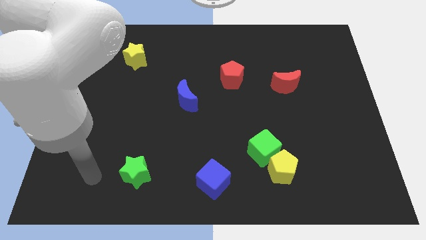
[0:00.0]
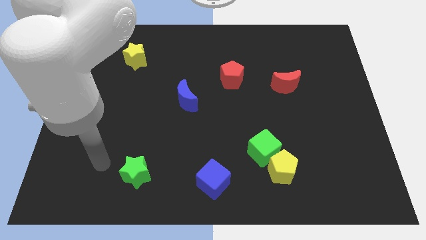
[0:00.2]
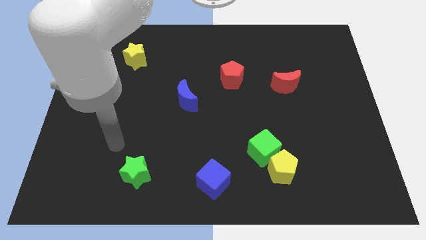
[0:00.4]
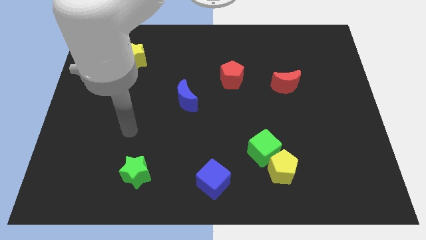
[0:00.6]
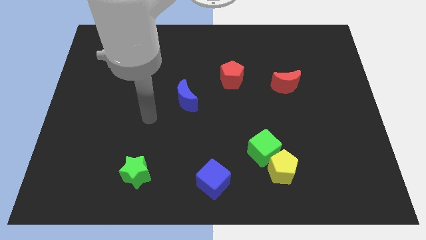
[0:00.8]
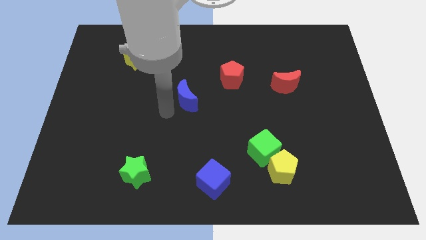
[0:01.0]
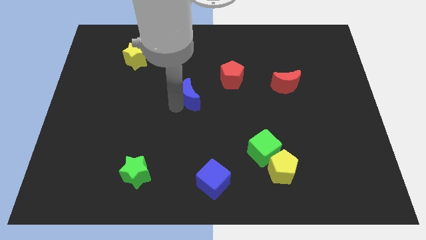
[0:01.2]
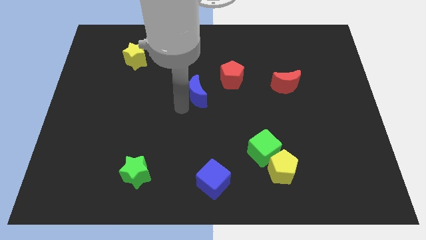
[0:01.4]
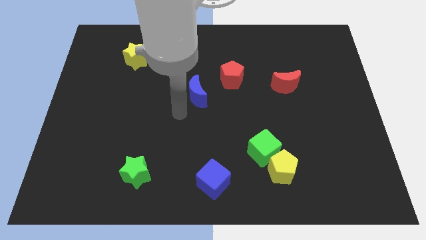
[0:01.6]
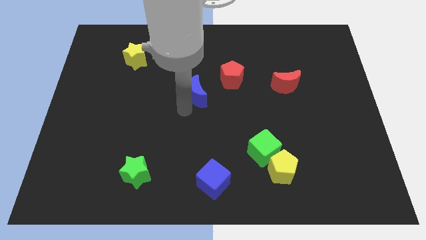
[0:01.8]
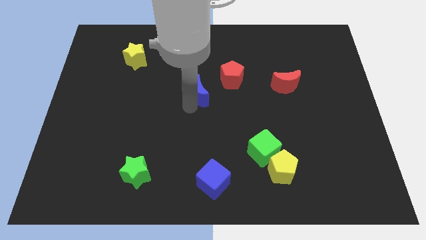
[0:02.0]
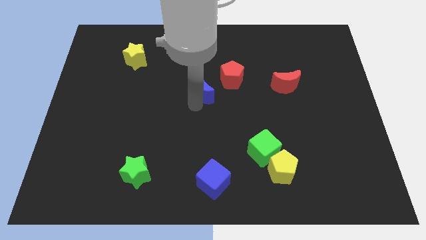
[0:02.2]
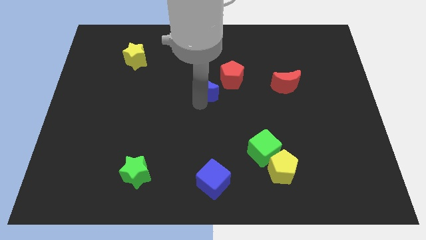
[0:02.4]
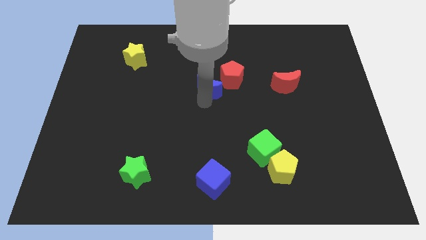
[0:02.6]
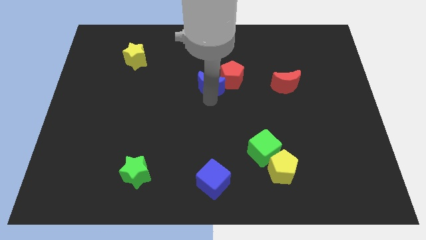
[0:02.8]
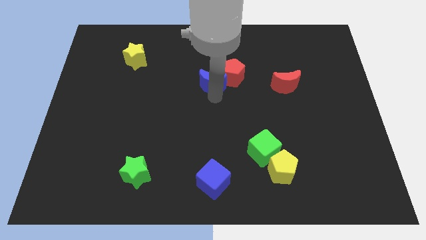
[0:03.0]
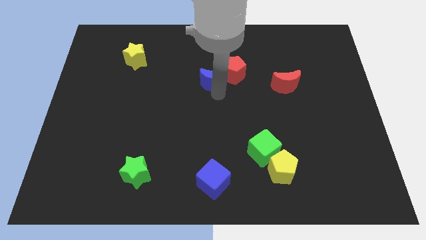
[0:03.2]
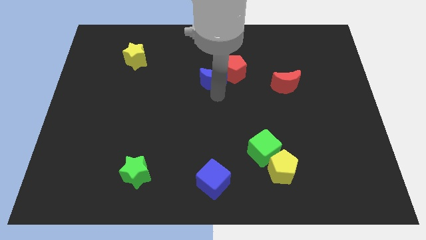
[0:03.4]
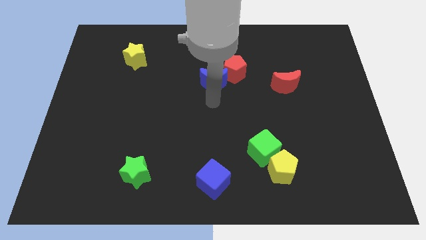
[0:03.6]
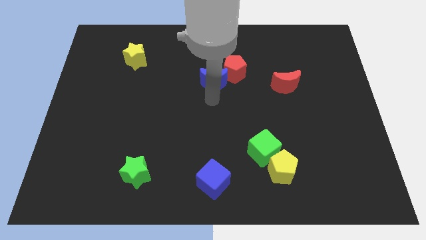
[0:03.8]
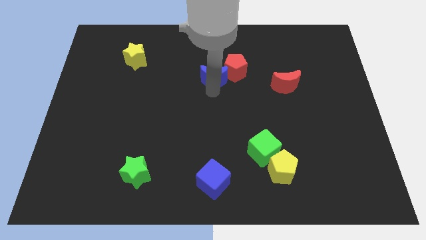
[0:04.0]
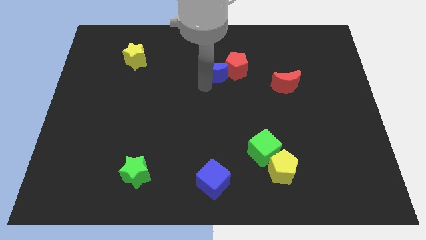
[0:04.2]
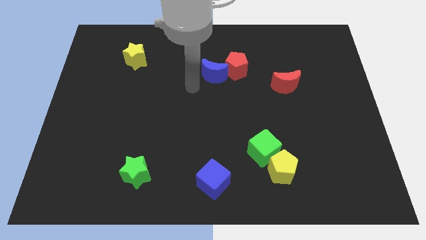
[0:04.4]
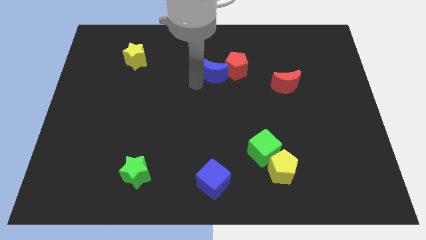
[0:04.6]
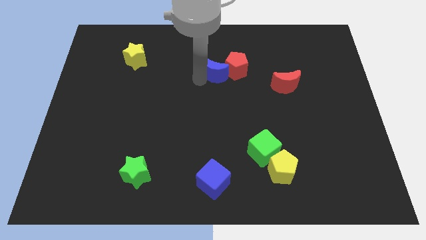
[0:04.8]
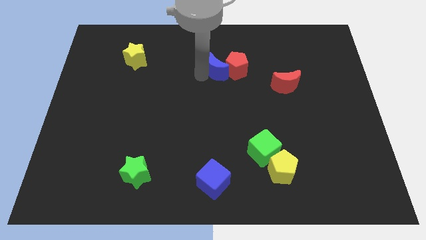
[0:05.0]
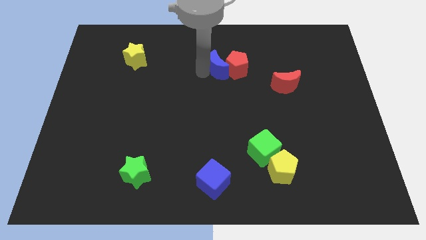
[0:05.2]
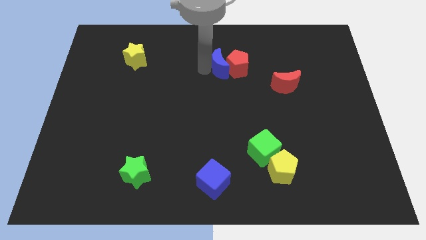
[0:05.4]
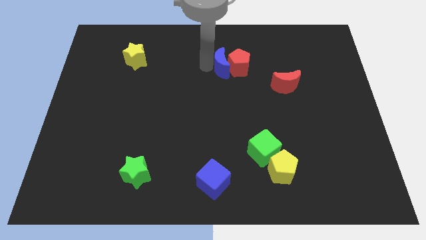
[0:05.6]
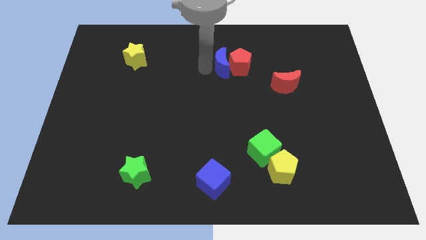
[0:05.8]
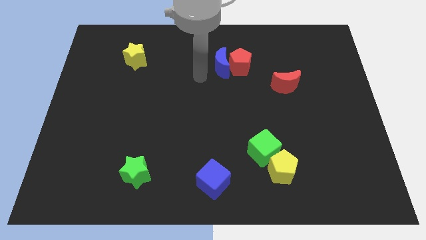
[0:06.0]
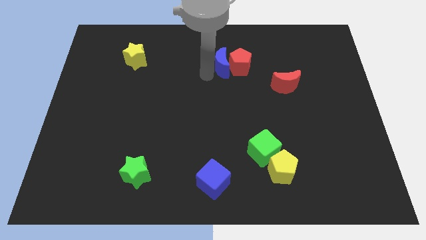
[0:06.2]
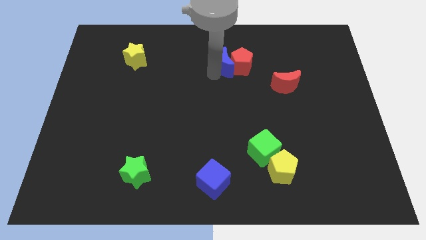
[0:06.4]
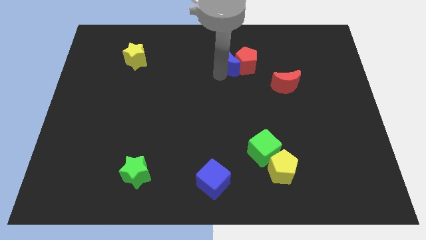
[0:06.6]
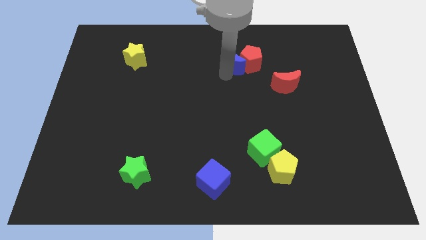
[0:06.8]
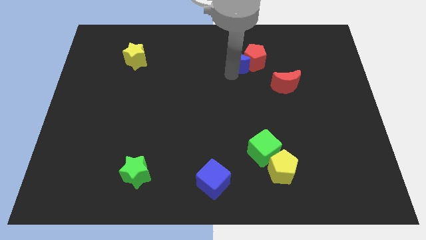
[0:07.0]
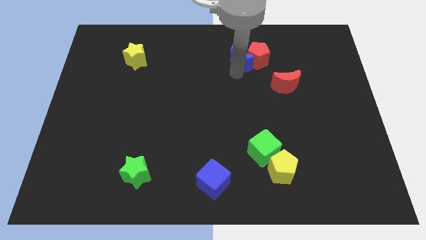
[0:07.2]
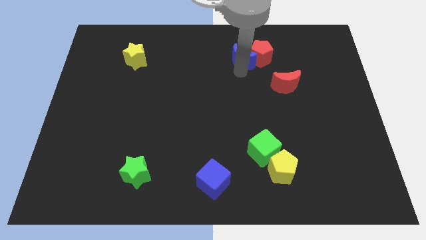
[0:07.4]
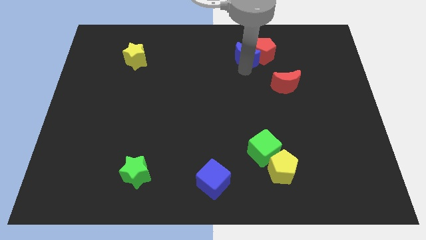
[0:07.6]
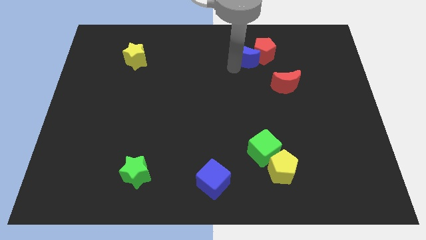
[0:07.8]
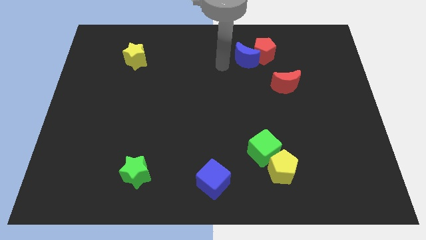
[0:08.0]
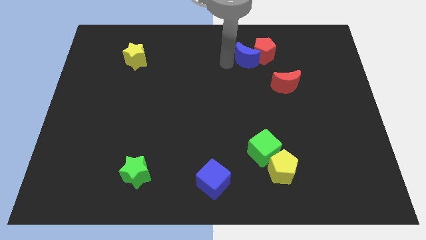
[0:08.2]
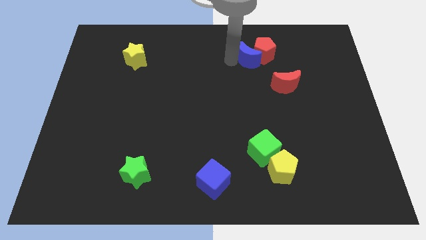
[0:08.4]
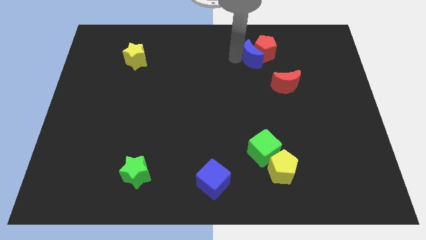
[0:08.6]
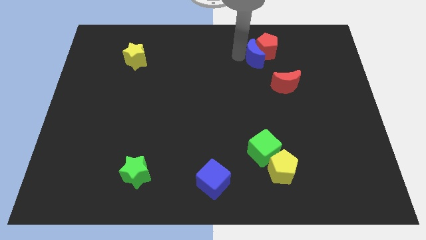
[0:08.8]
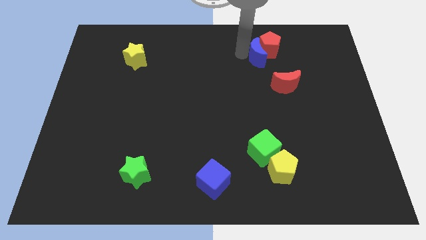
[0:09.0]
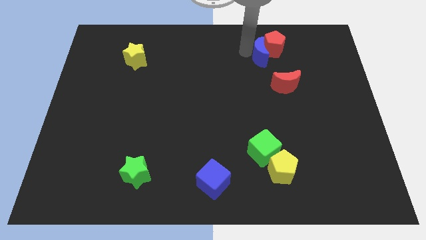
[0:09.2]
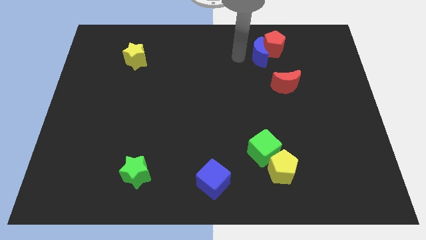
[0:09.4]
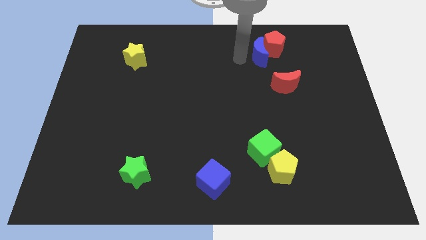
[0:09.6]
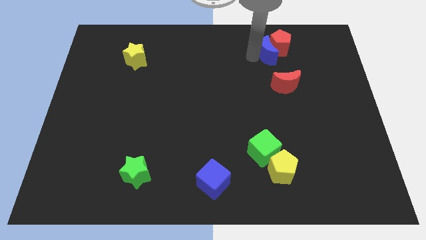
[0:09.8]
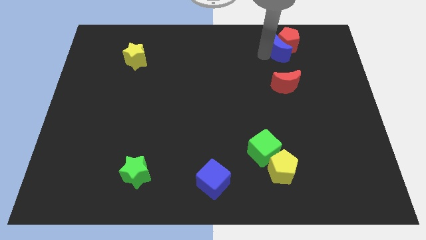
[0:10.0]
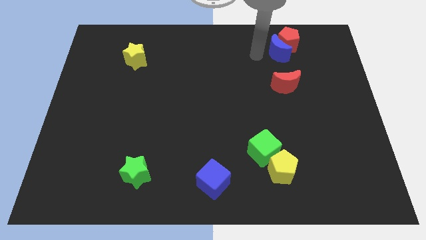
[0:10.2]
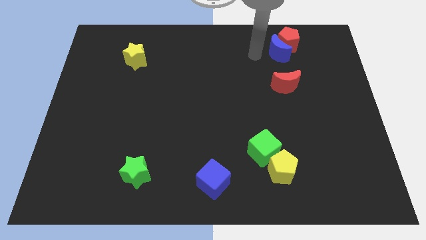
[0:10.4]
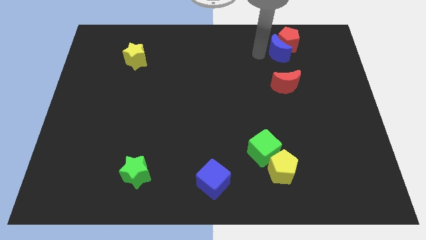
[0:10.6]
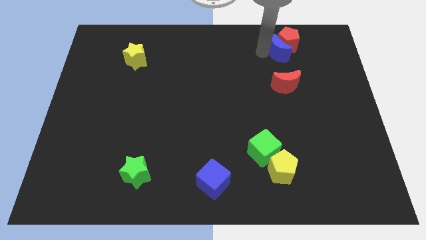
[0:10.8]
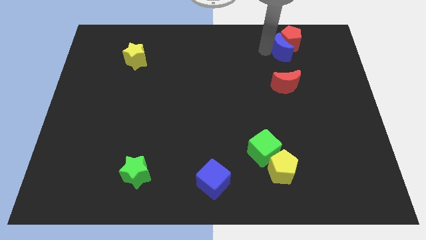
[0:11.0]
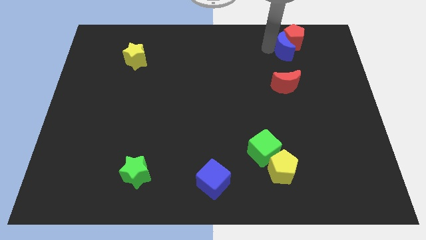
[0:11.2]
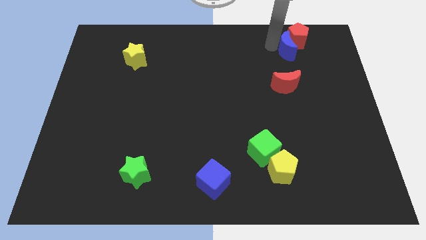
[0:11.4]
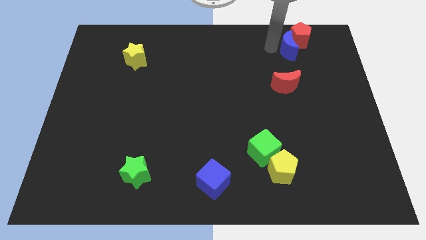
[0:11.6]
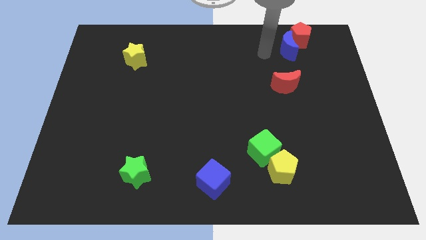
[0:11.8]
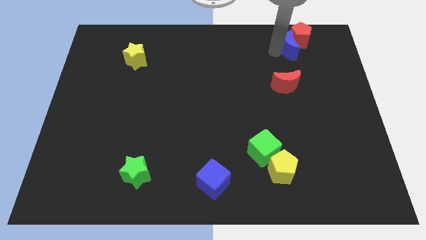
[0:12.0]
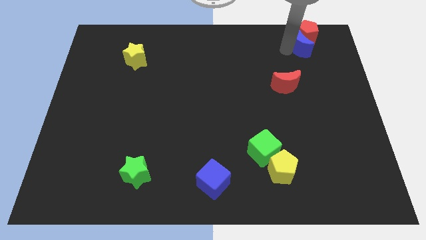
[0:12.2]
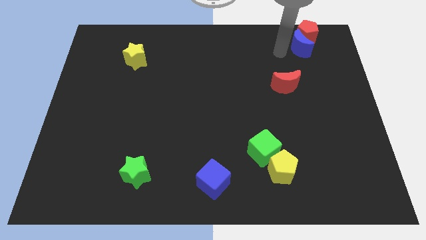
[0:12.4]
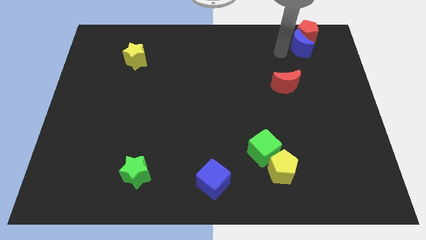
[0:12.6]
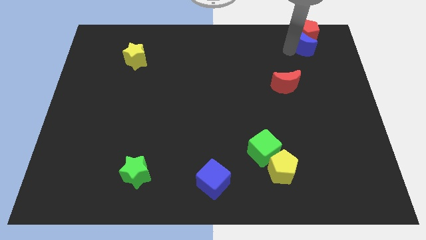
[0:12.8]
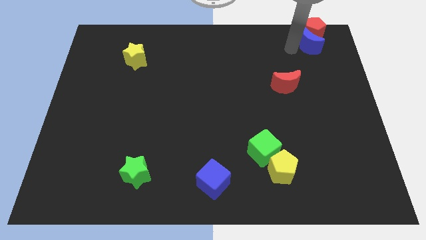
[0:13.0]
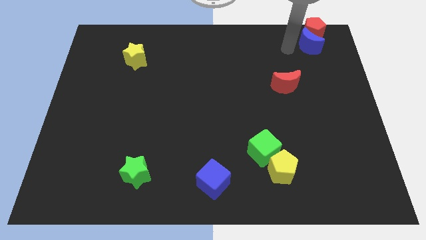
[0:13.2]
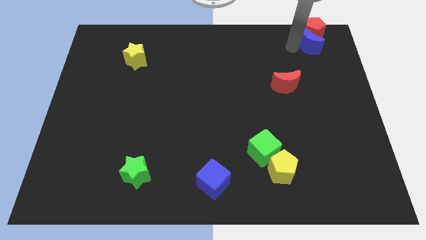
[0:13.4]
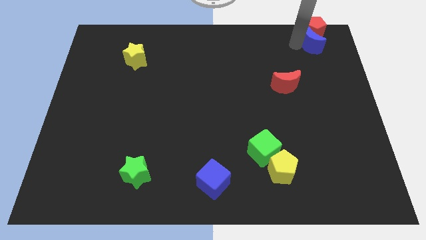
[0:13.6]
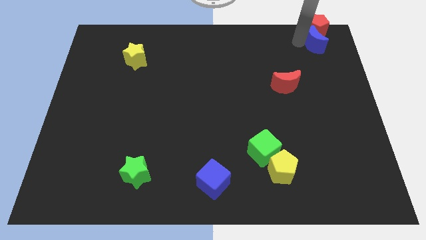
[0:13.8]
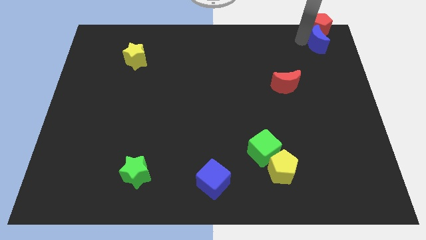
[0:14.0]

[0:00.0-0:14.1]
push the blue moon to the top right
